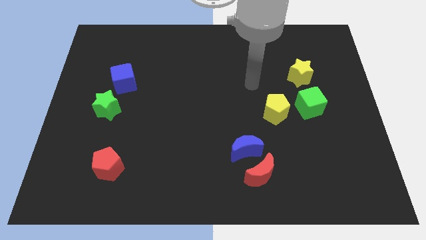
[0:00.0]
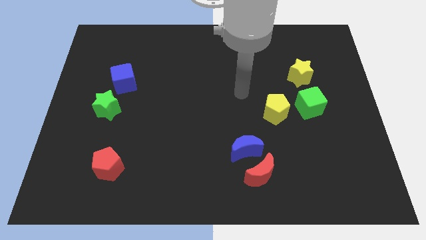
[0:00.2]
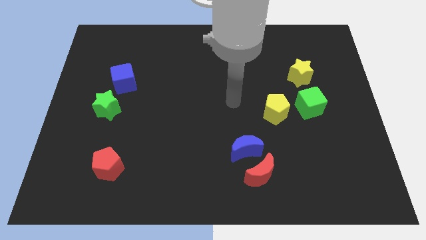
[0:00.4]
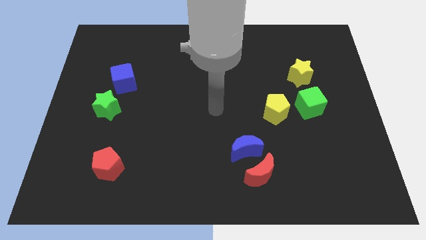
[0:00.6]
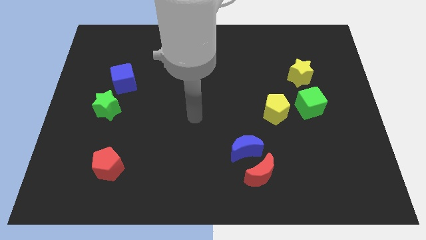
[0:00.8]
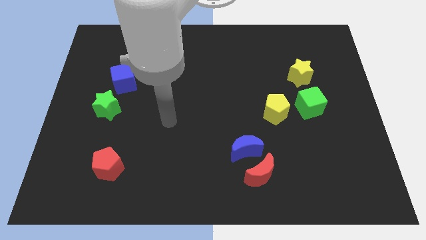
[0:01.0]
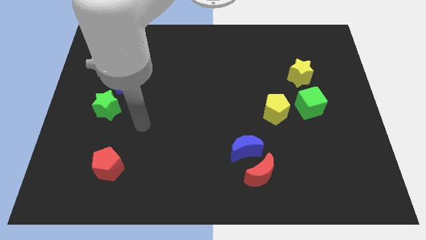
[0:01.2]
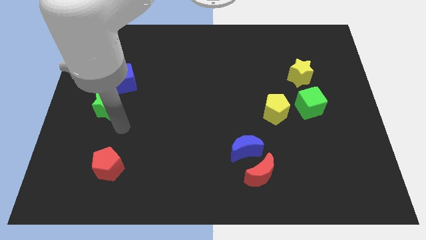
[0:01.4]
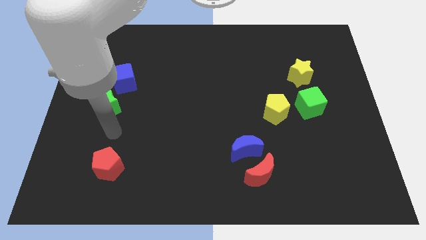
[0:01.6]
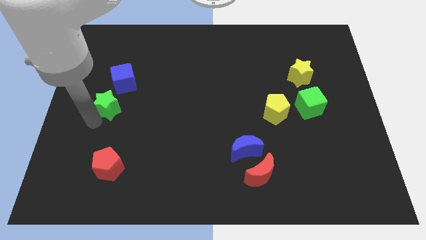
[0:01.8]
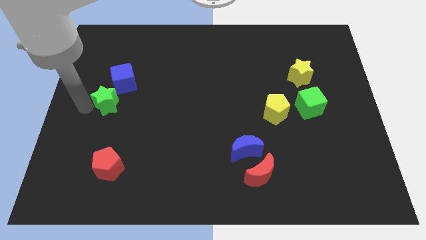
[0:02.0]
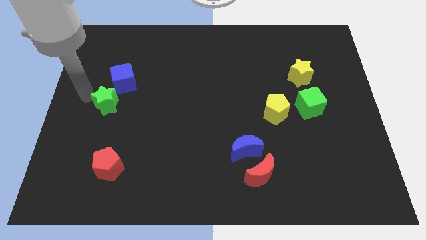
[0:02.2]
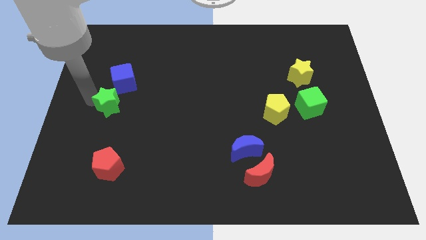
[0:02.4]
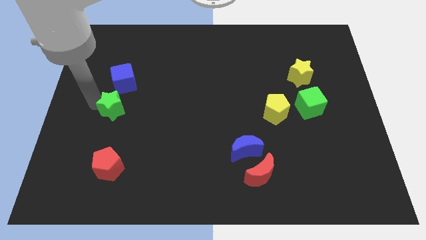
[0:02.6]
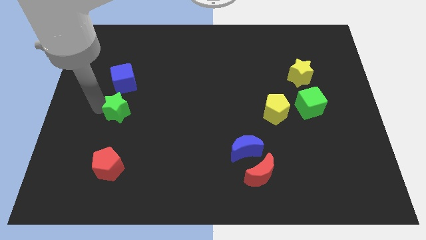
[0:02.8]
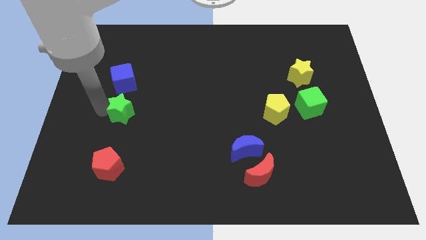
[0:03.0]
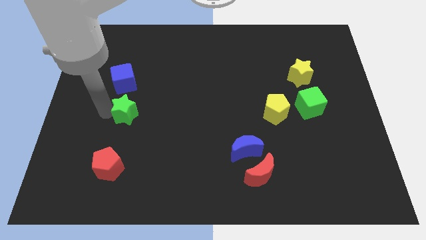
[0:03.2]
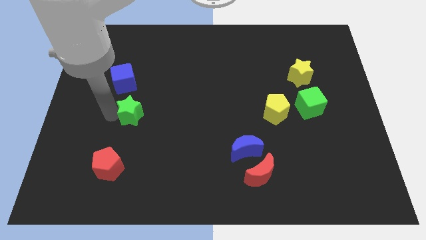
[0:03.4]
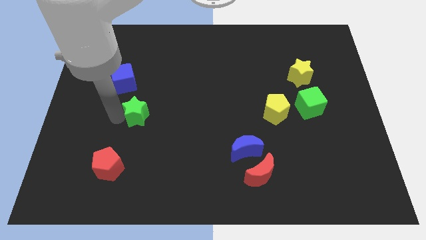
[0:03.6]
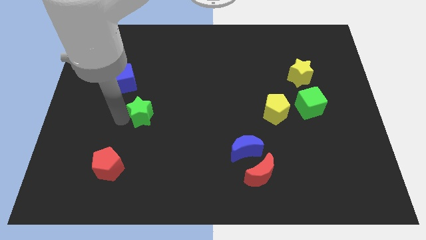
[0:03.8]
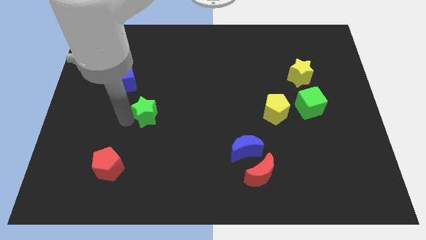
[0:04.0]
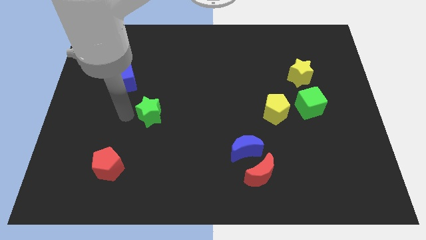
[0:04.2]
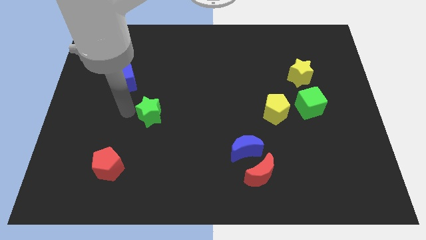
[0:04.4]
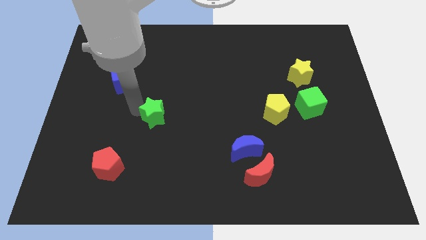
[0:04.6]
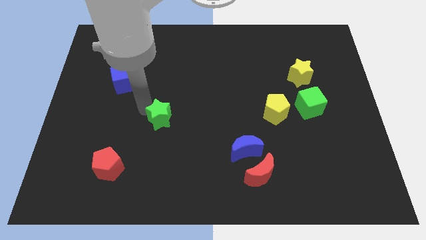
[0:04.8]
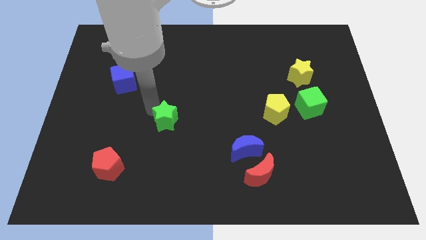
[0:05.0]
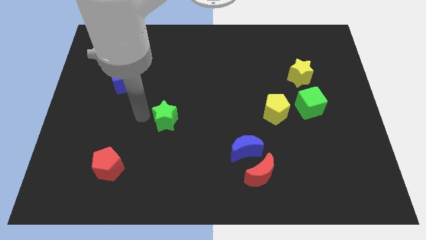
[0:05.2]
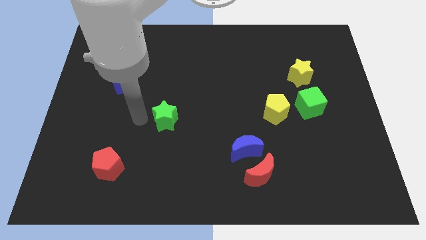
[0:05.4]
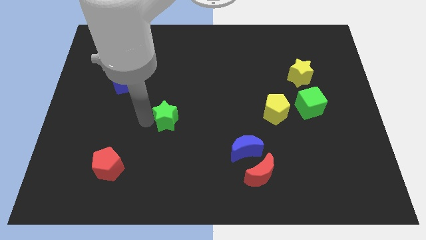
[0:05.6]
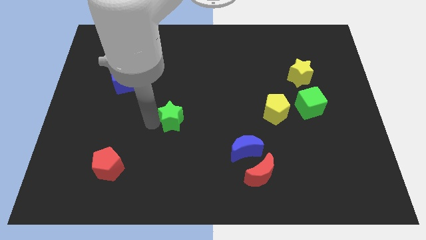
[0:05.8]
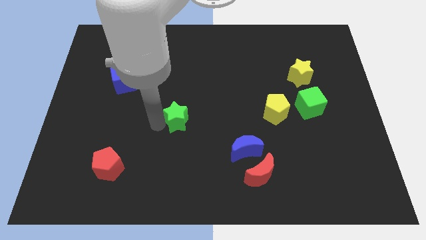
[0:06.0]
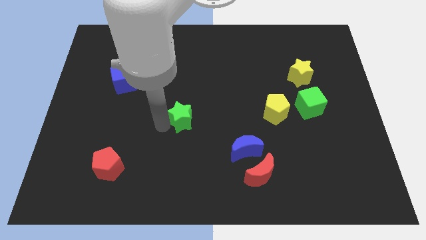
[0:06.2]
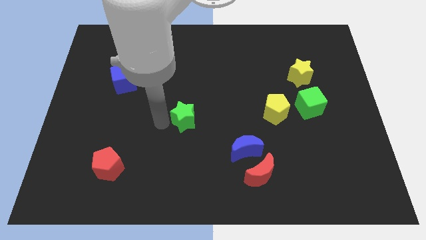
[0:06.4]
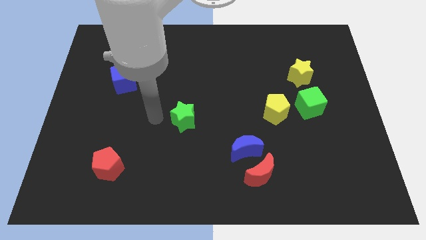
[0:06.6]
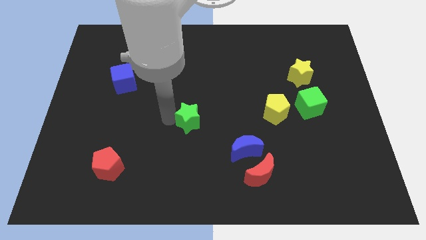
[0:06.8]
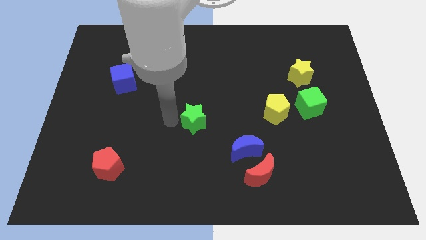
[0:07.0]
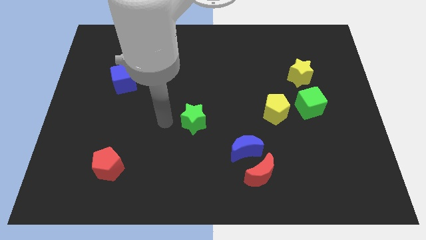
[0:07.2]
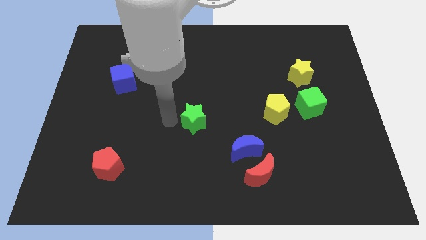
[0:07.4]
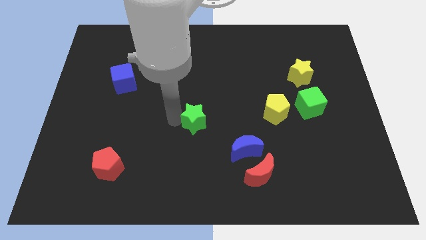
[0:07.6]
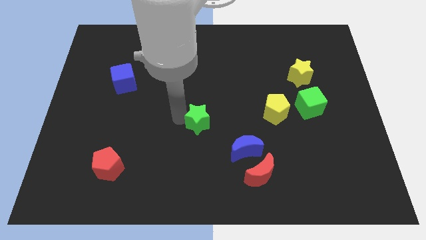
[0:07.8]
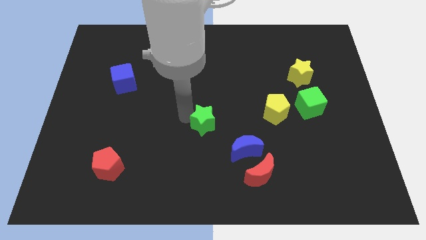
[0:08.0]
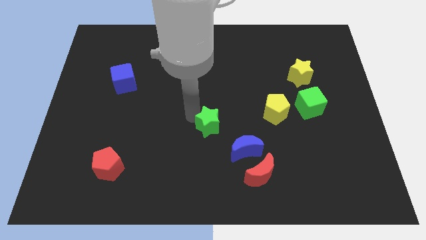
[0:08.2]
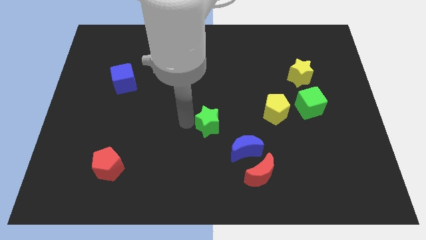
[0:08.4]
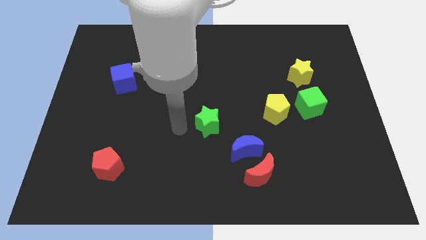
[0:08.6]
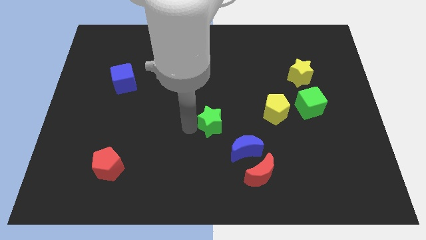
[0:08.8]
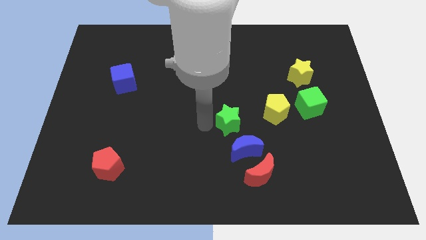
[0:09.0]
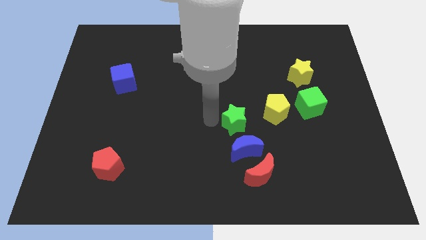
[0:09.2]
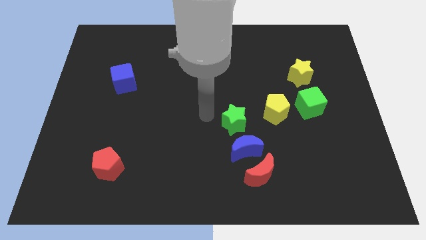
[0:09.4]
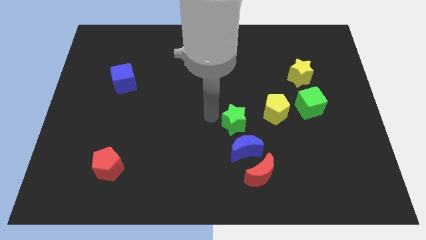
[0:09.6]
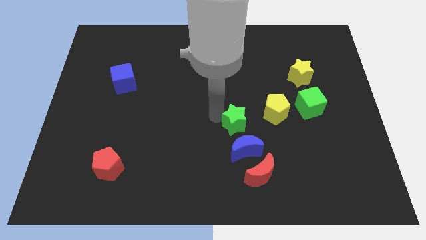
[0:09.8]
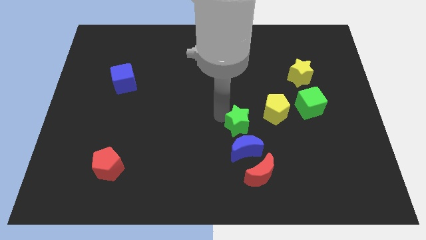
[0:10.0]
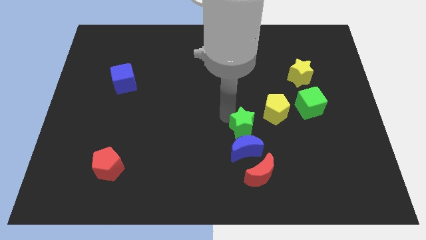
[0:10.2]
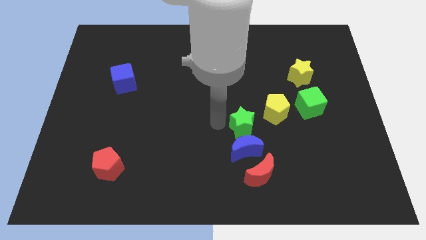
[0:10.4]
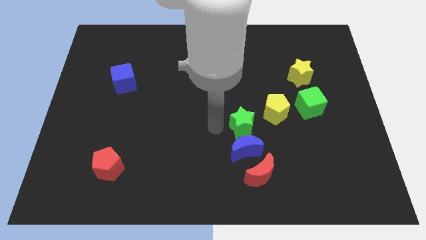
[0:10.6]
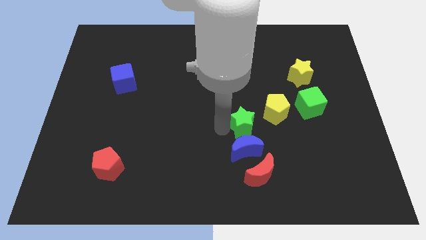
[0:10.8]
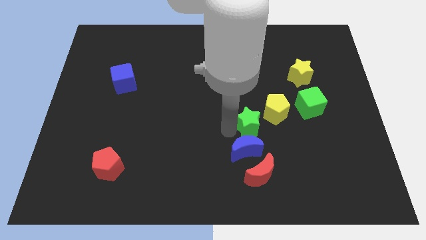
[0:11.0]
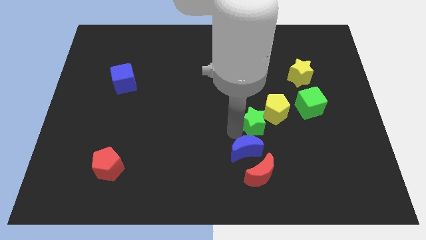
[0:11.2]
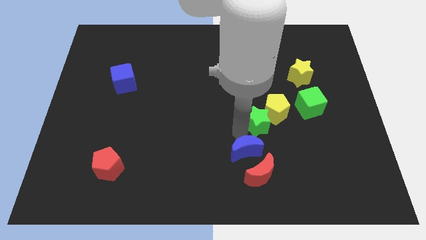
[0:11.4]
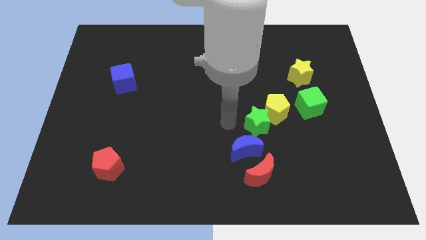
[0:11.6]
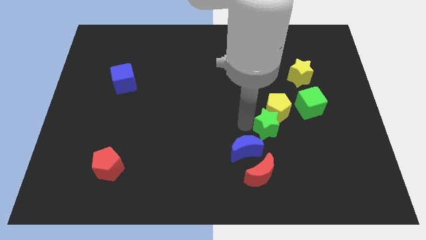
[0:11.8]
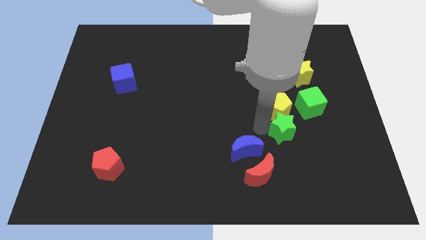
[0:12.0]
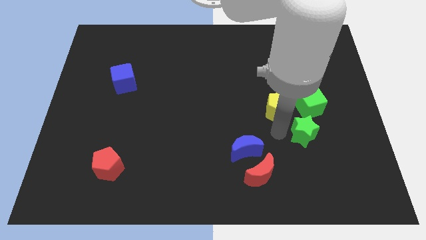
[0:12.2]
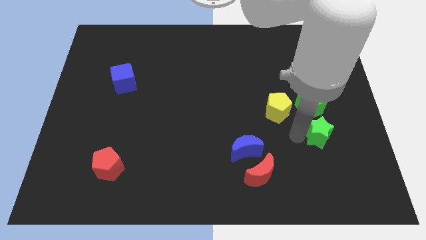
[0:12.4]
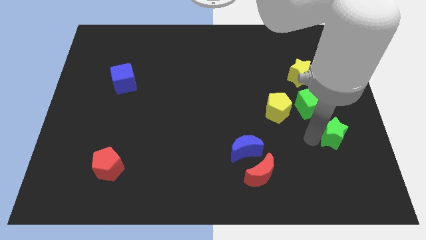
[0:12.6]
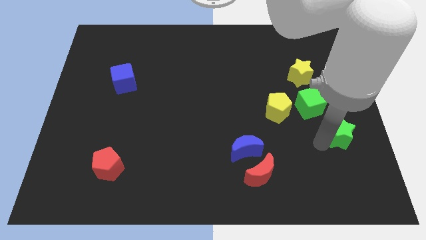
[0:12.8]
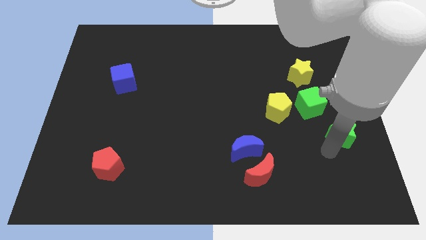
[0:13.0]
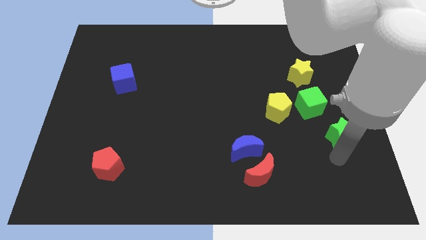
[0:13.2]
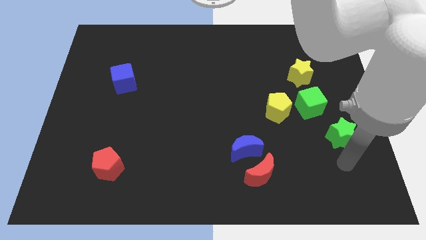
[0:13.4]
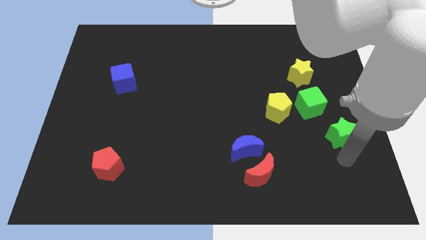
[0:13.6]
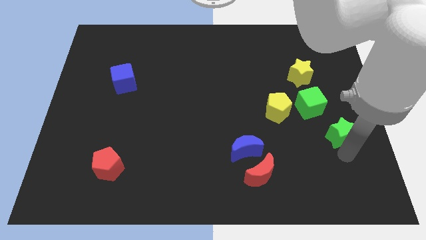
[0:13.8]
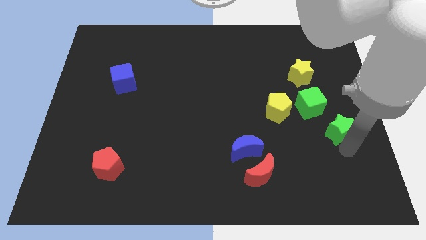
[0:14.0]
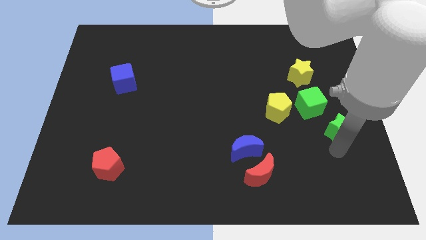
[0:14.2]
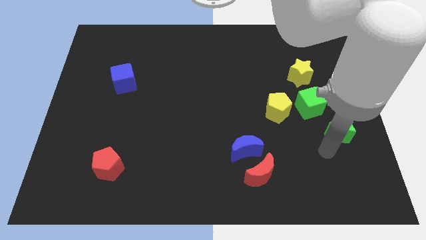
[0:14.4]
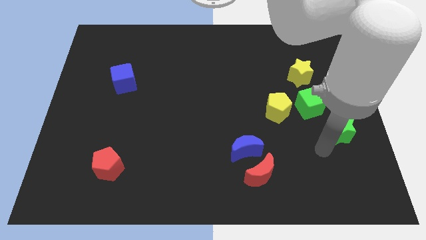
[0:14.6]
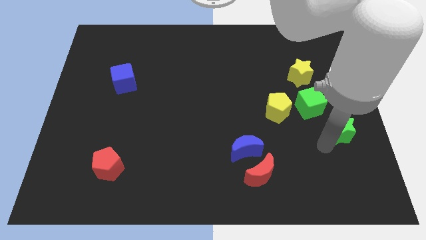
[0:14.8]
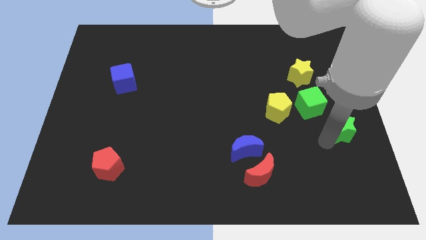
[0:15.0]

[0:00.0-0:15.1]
move the green star to the right side of the board
